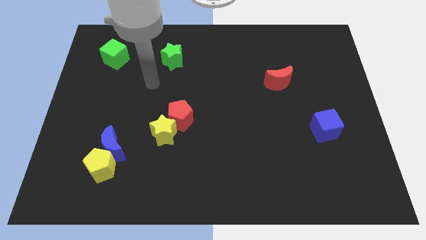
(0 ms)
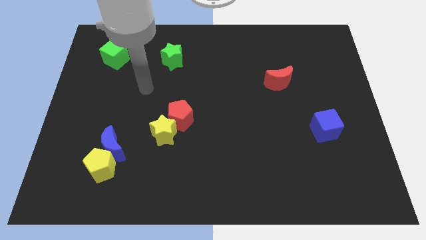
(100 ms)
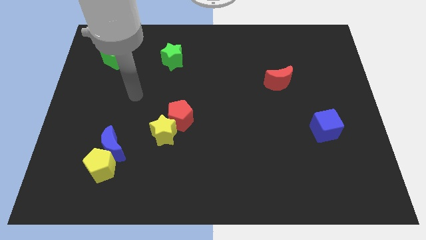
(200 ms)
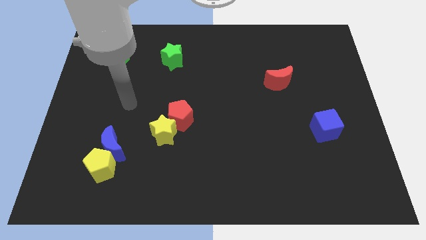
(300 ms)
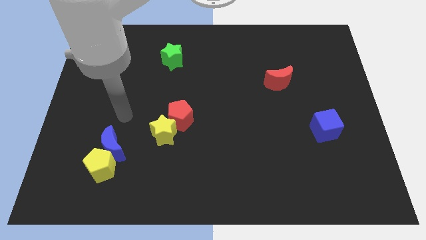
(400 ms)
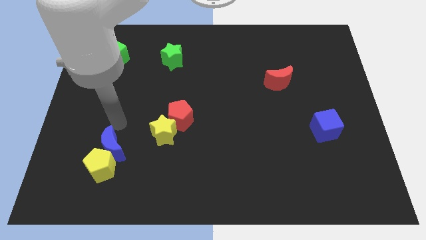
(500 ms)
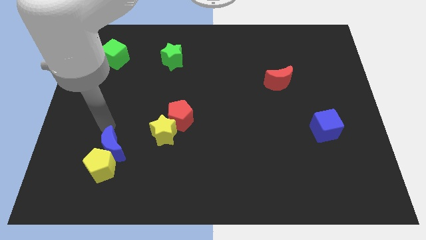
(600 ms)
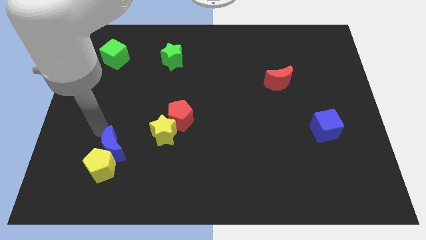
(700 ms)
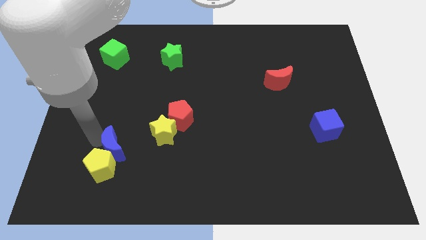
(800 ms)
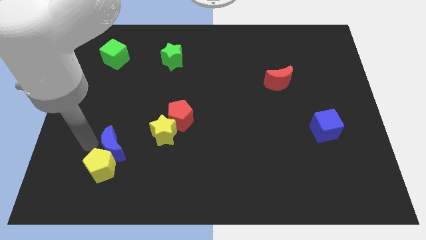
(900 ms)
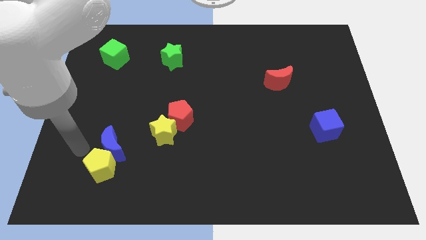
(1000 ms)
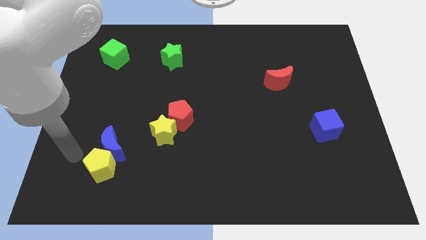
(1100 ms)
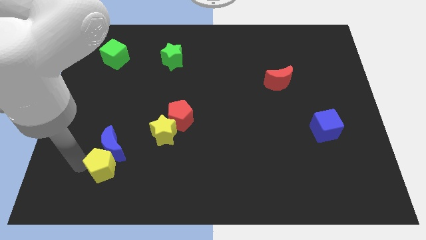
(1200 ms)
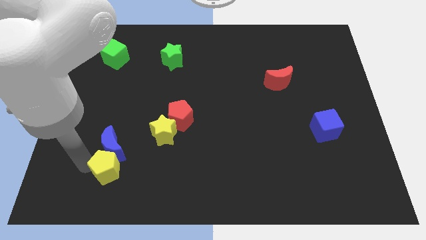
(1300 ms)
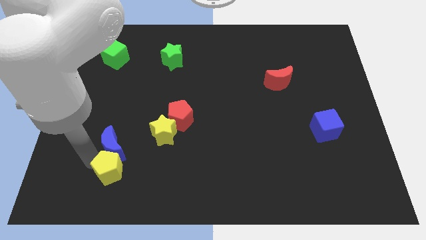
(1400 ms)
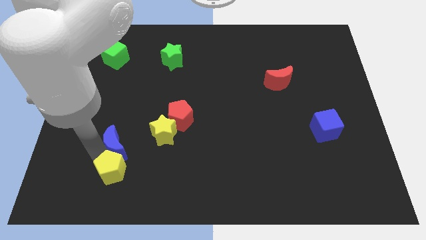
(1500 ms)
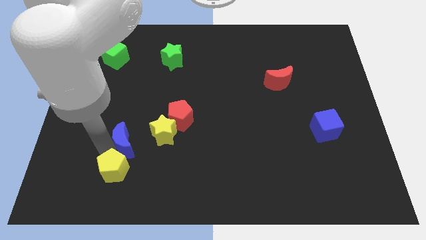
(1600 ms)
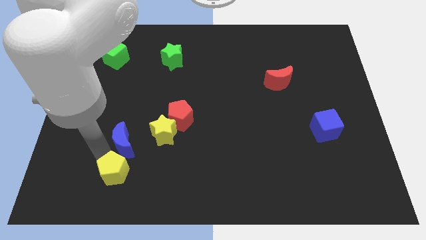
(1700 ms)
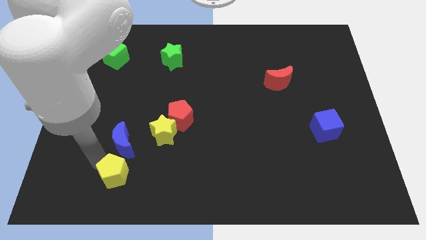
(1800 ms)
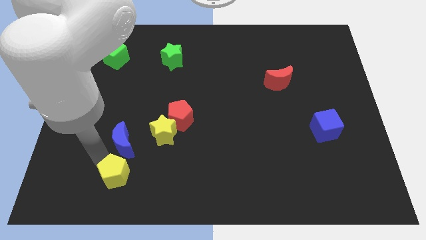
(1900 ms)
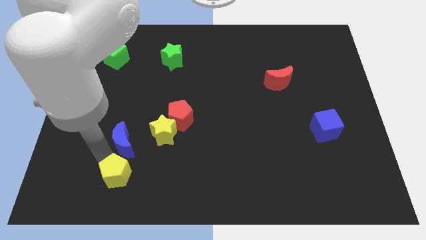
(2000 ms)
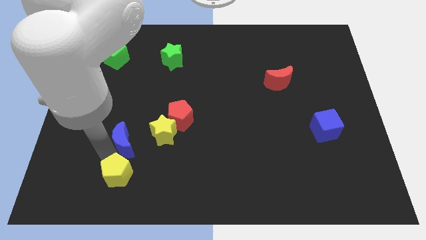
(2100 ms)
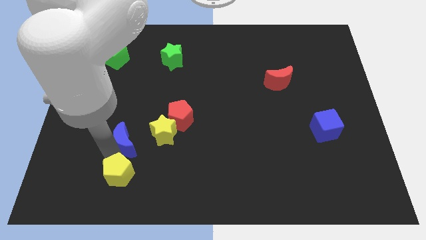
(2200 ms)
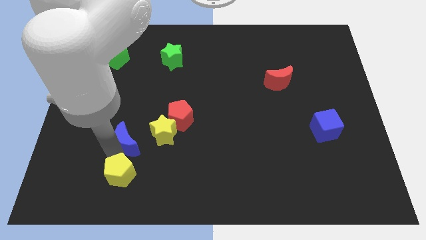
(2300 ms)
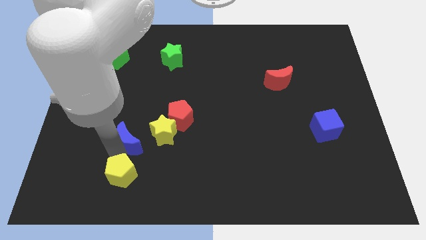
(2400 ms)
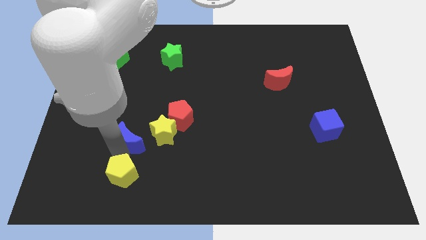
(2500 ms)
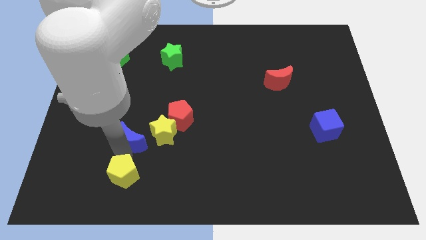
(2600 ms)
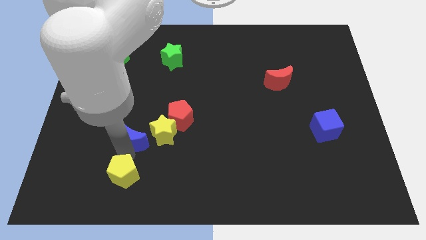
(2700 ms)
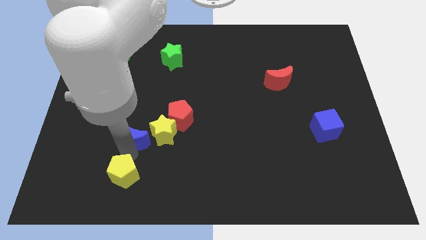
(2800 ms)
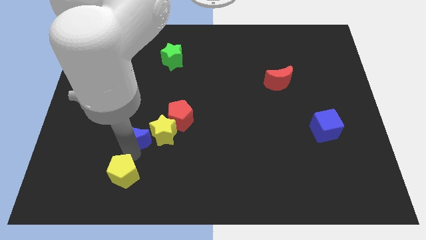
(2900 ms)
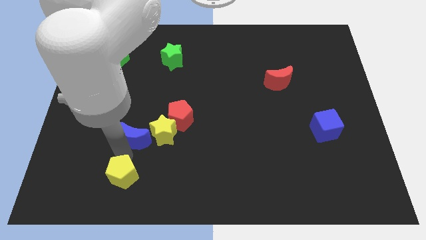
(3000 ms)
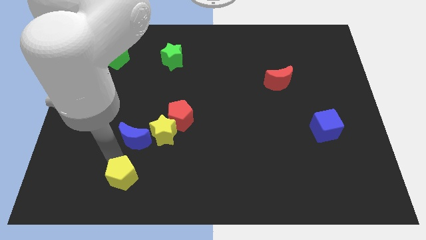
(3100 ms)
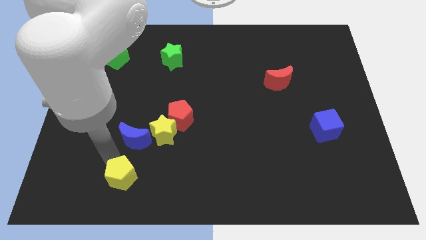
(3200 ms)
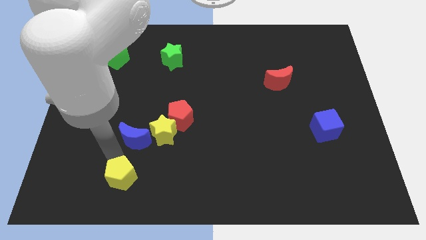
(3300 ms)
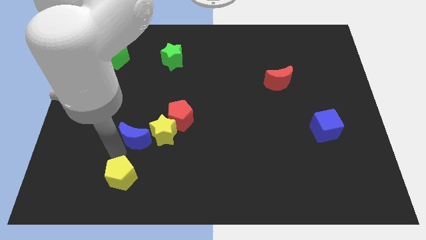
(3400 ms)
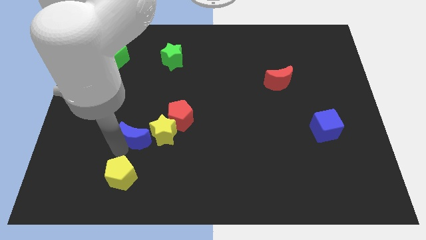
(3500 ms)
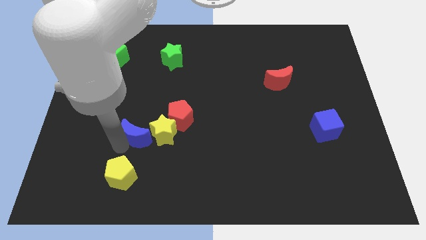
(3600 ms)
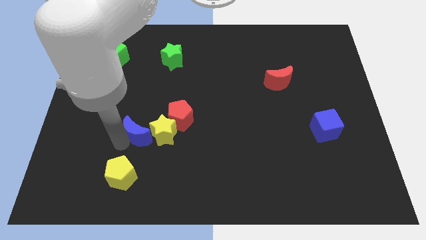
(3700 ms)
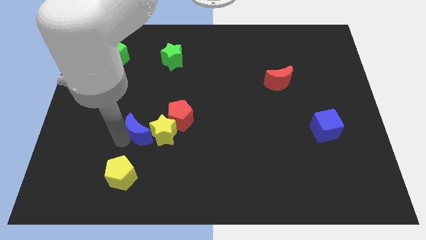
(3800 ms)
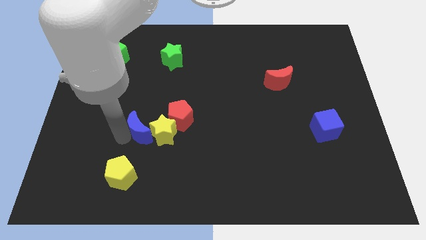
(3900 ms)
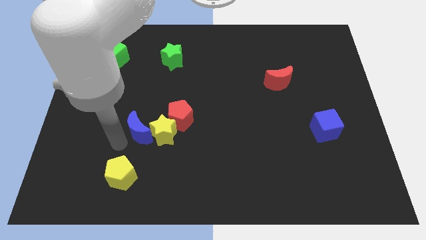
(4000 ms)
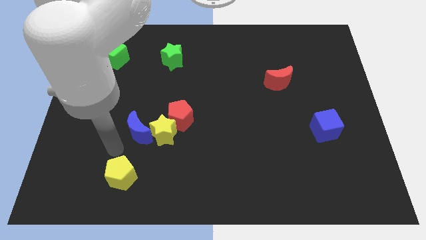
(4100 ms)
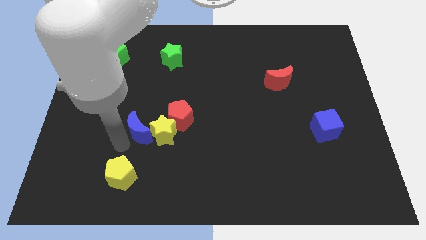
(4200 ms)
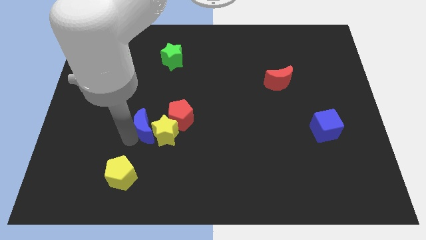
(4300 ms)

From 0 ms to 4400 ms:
slightly move the blue moon upwards and right

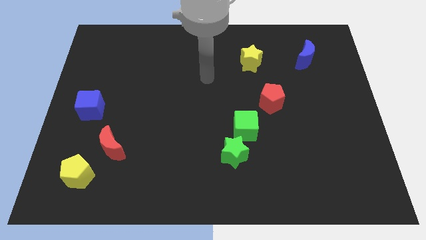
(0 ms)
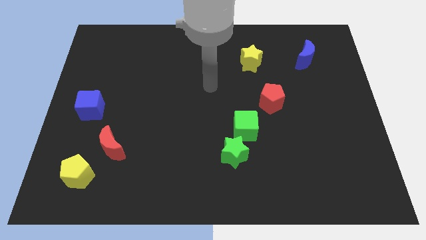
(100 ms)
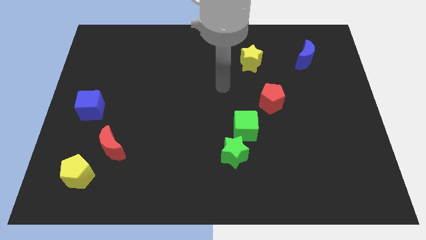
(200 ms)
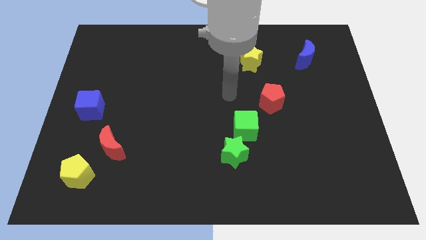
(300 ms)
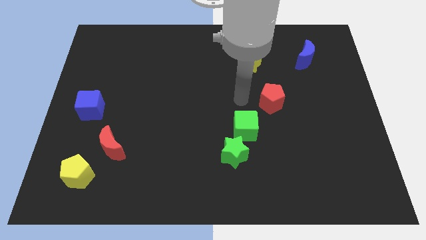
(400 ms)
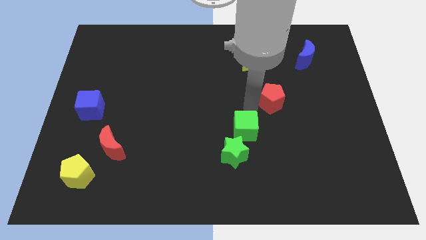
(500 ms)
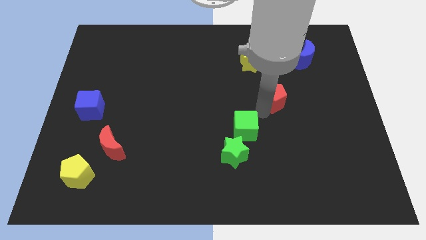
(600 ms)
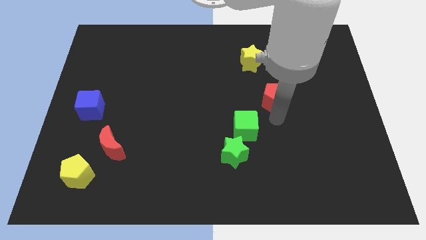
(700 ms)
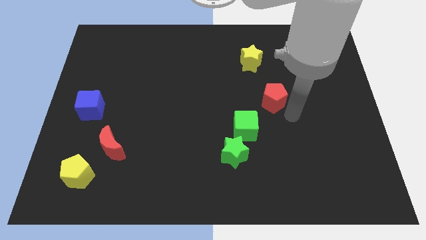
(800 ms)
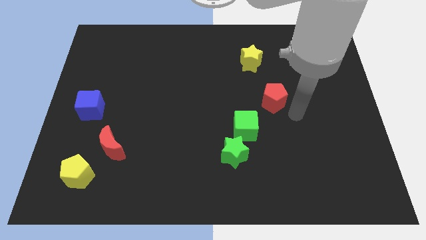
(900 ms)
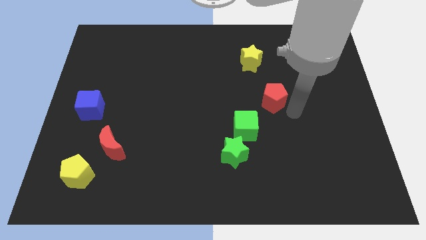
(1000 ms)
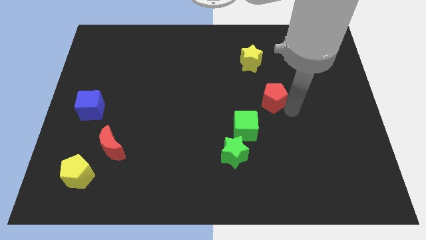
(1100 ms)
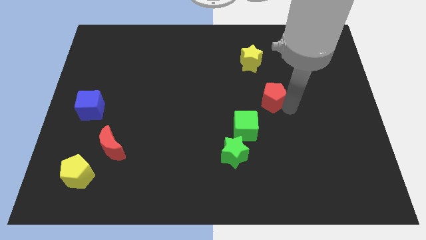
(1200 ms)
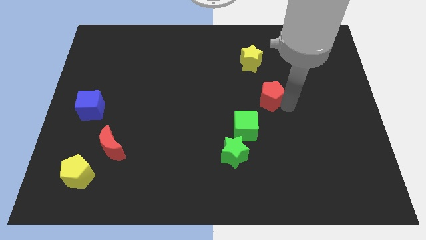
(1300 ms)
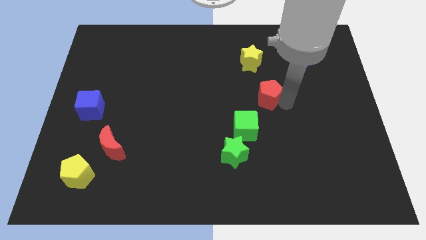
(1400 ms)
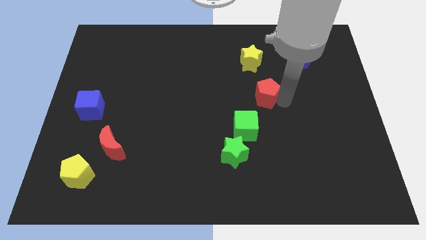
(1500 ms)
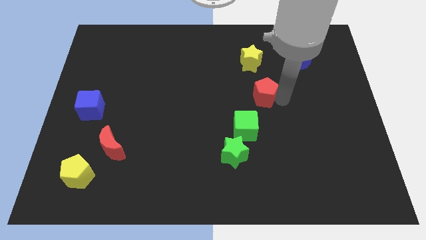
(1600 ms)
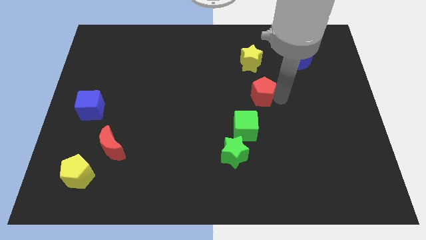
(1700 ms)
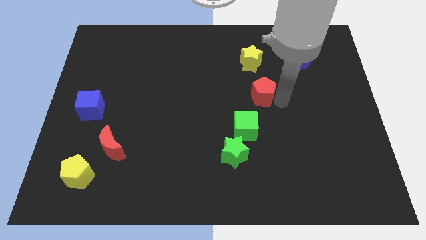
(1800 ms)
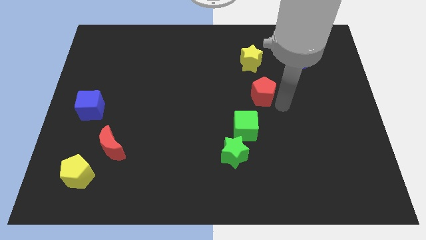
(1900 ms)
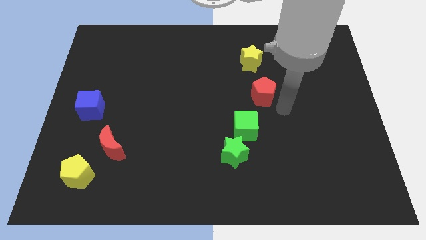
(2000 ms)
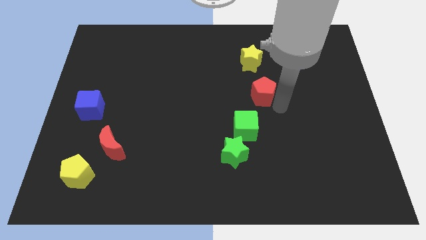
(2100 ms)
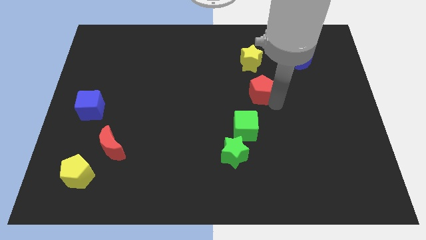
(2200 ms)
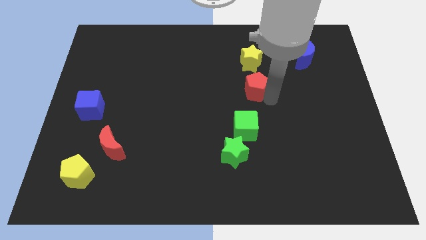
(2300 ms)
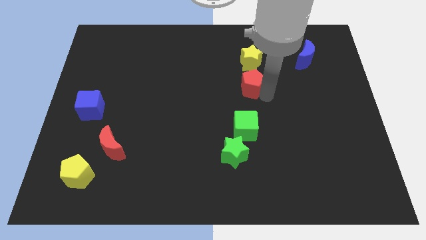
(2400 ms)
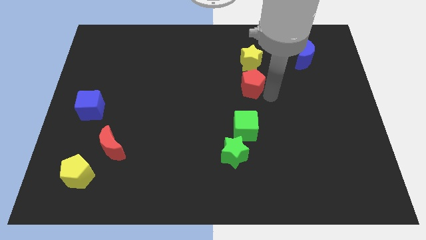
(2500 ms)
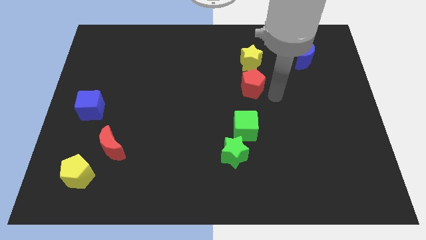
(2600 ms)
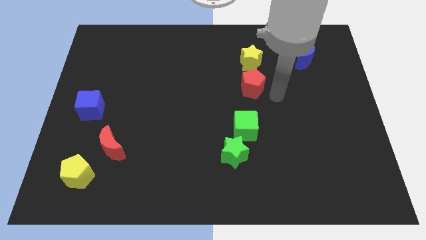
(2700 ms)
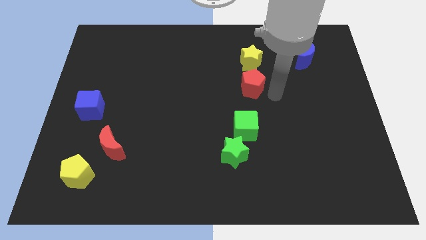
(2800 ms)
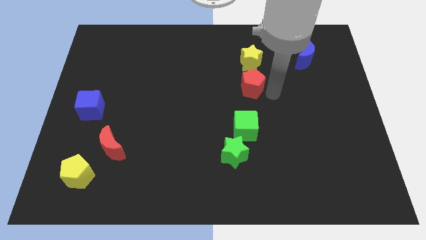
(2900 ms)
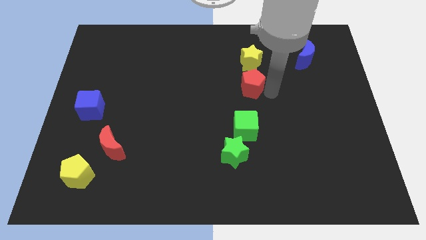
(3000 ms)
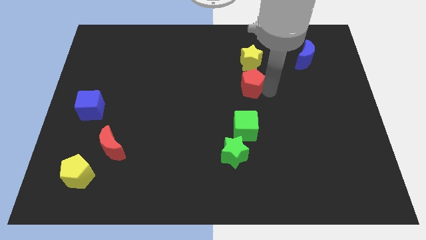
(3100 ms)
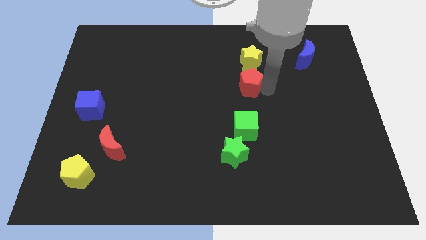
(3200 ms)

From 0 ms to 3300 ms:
slightly move the red pentagon up and to the left

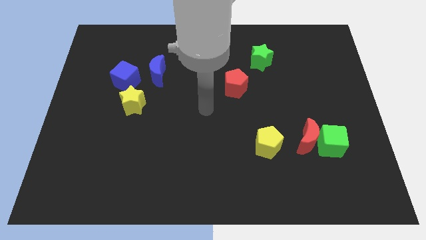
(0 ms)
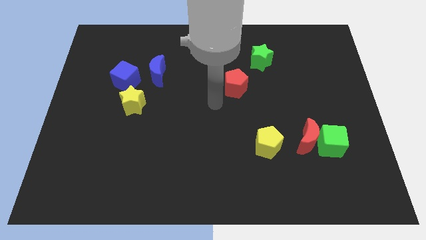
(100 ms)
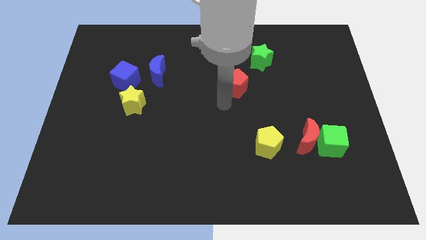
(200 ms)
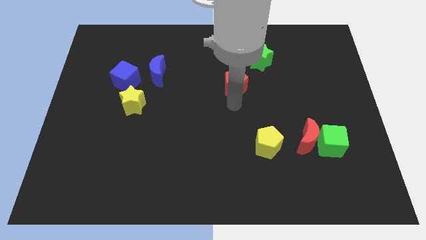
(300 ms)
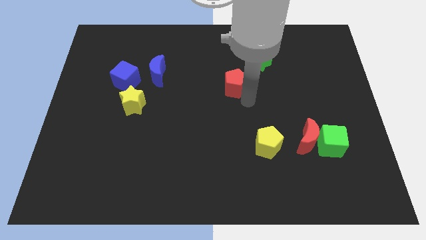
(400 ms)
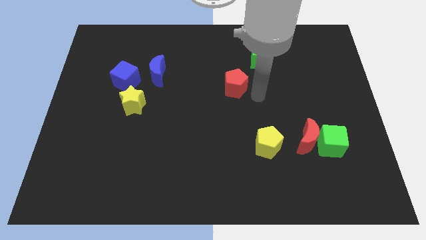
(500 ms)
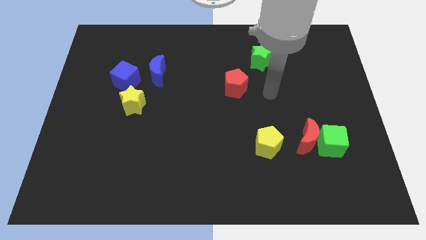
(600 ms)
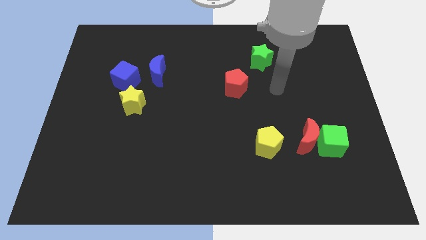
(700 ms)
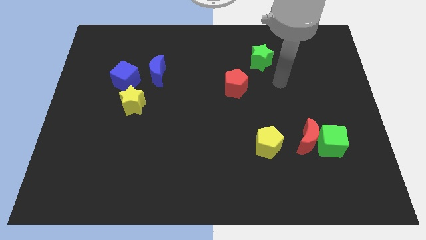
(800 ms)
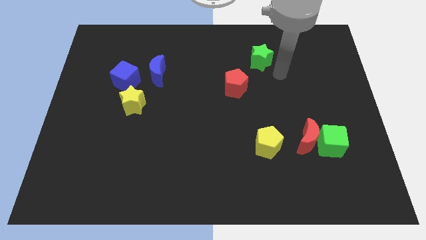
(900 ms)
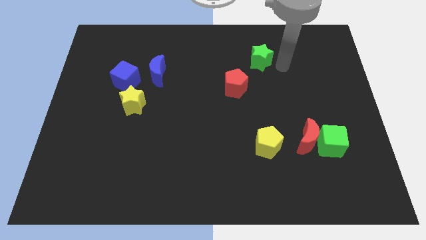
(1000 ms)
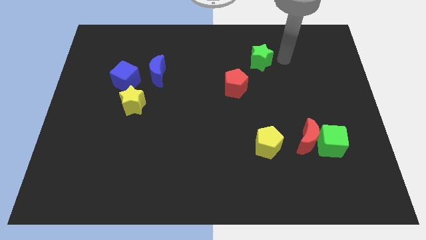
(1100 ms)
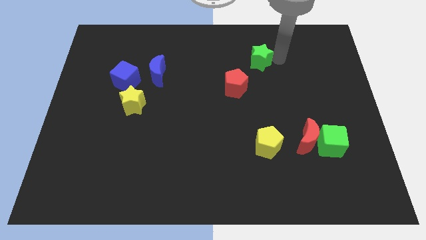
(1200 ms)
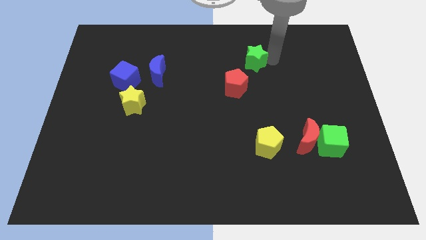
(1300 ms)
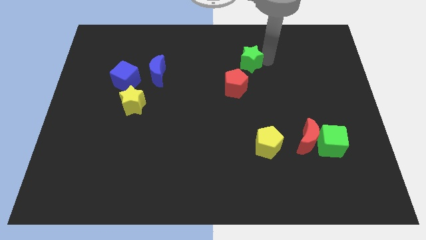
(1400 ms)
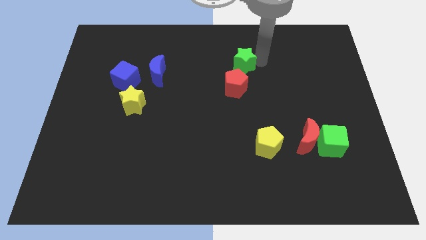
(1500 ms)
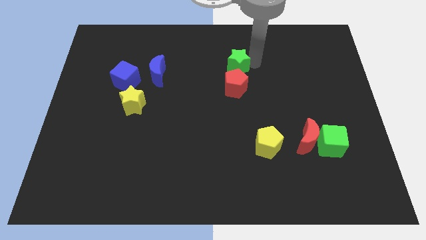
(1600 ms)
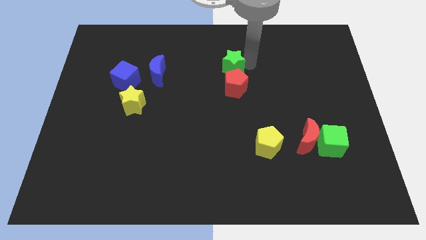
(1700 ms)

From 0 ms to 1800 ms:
push the green star to the left a little
